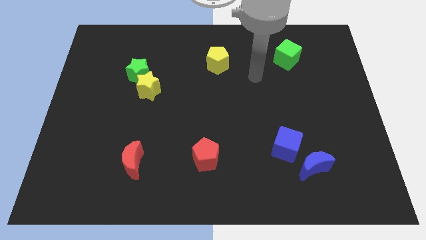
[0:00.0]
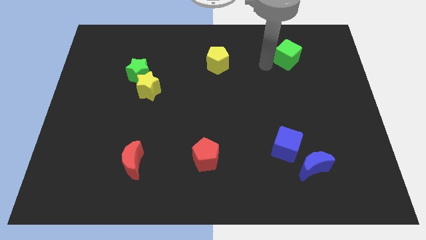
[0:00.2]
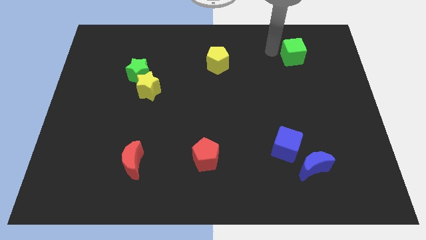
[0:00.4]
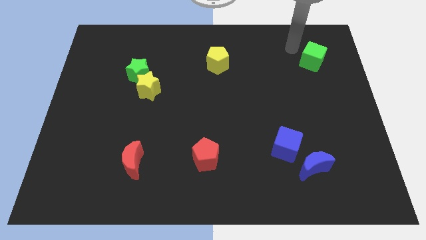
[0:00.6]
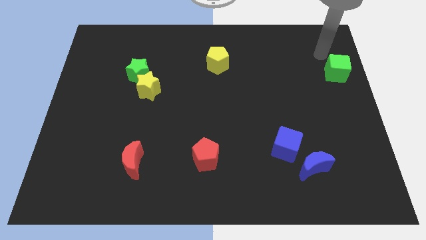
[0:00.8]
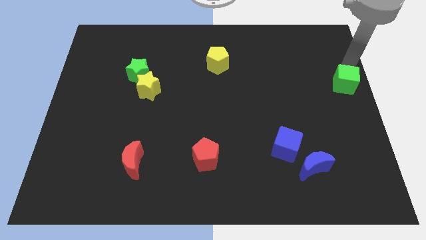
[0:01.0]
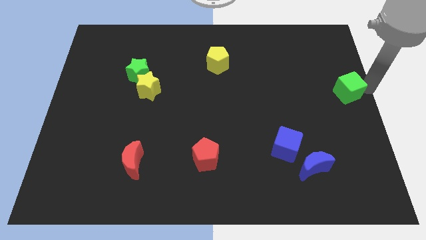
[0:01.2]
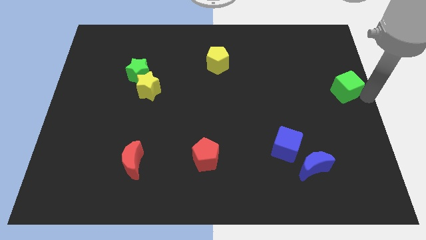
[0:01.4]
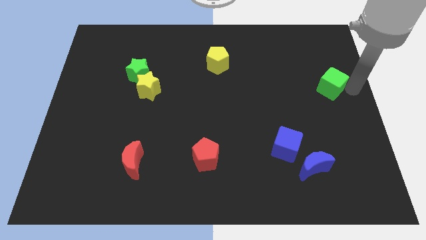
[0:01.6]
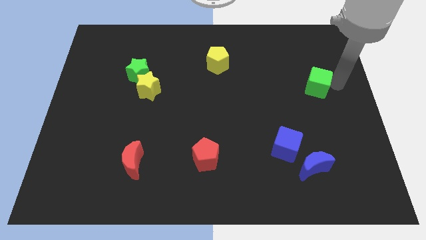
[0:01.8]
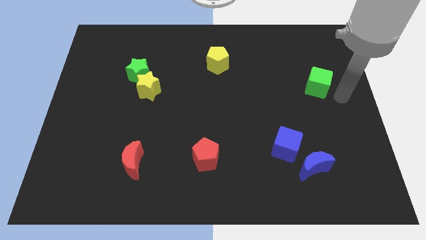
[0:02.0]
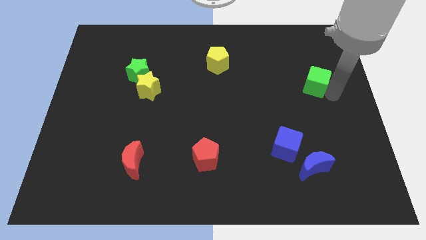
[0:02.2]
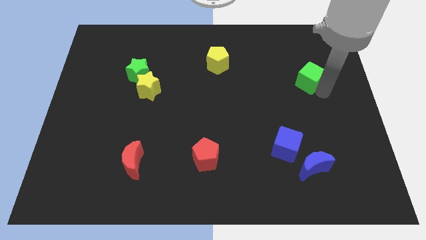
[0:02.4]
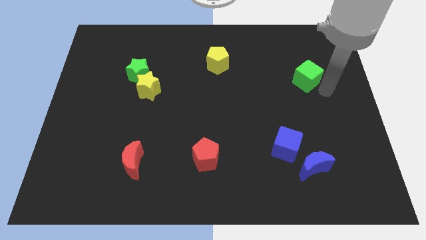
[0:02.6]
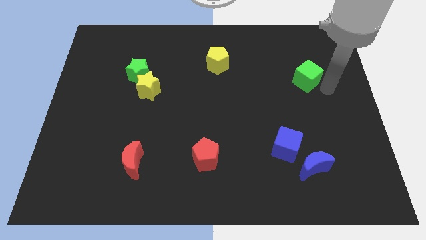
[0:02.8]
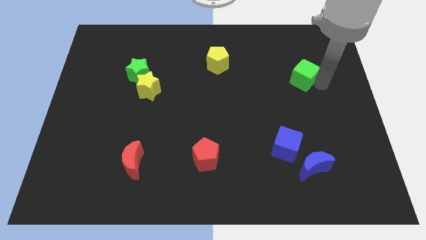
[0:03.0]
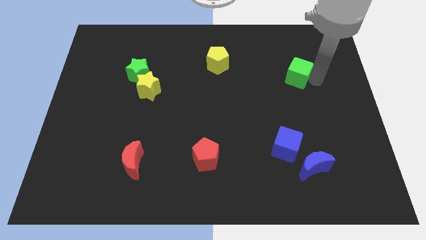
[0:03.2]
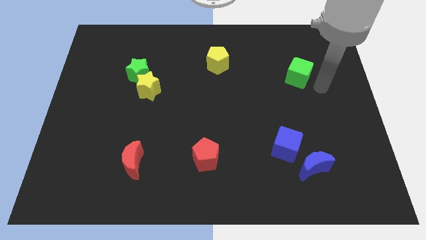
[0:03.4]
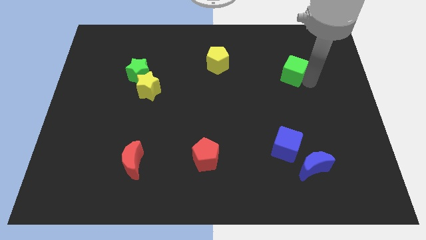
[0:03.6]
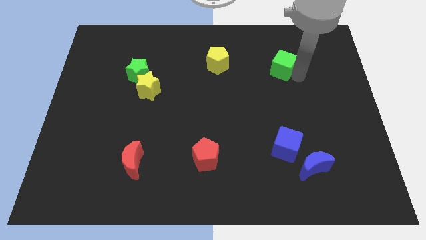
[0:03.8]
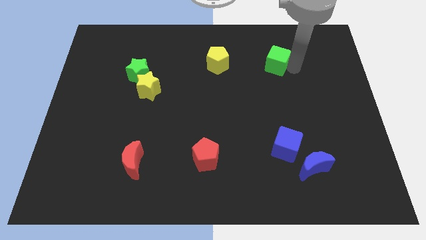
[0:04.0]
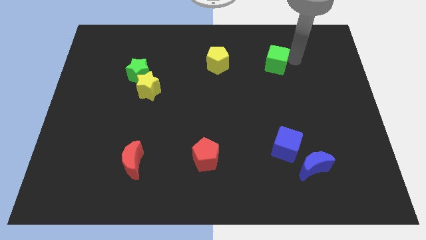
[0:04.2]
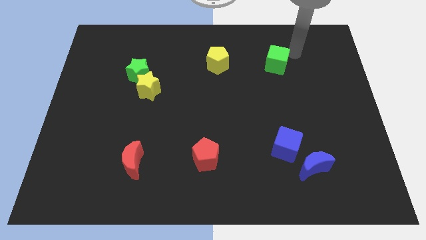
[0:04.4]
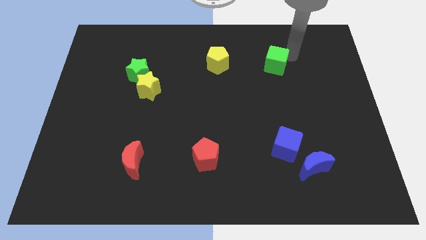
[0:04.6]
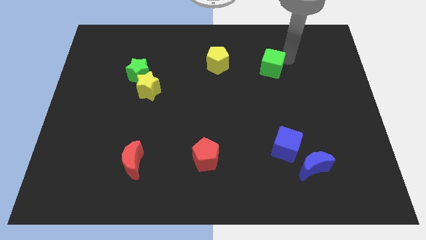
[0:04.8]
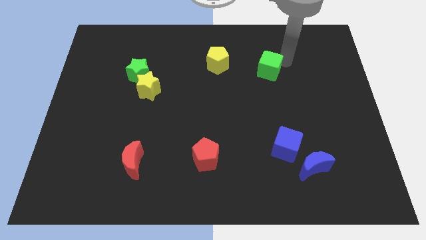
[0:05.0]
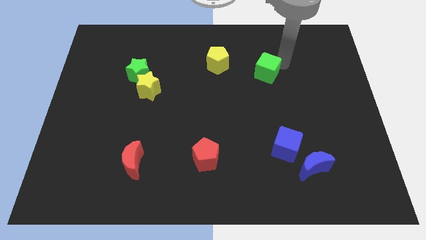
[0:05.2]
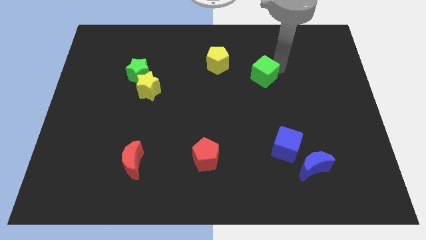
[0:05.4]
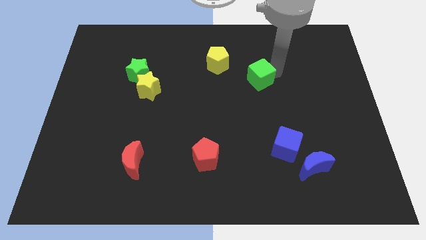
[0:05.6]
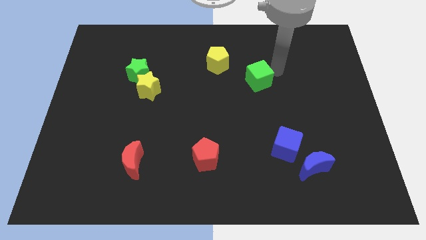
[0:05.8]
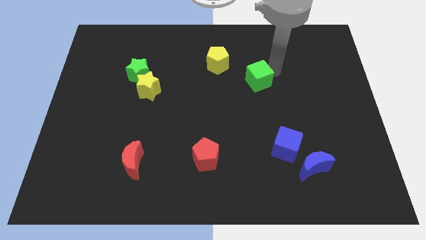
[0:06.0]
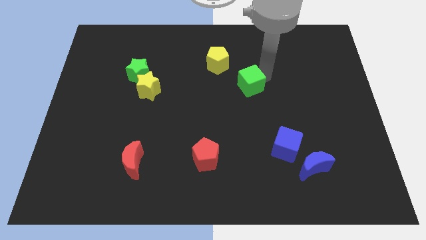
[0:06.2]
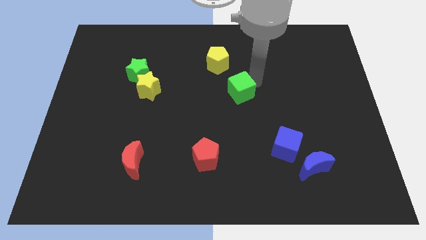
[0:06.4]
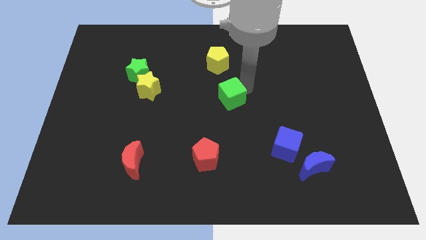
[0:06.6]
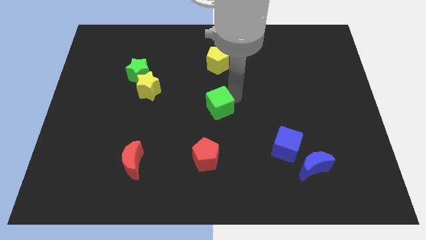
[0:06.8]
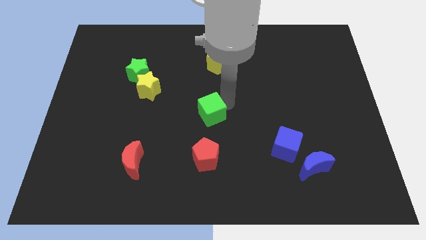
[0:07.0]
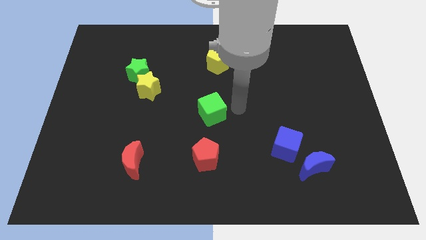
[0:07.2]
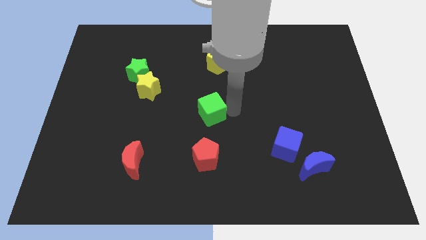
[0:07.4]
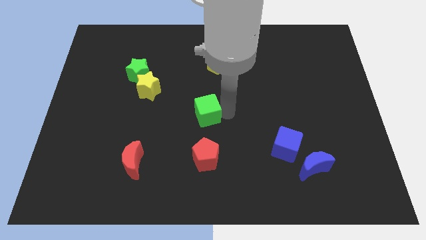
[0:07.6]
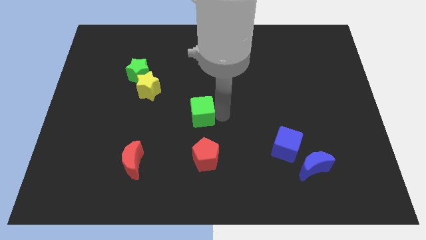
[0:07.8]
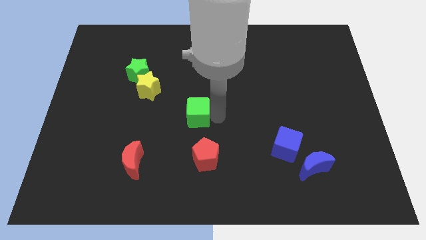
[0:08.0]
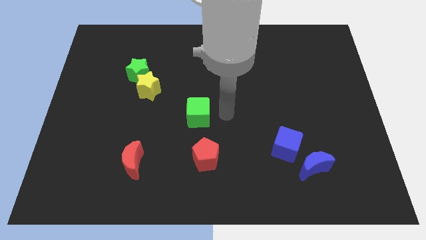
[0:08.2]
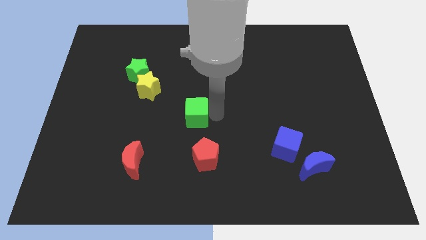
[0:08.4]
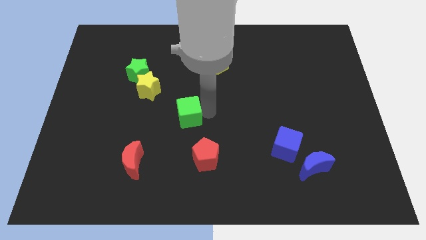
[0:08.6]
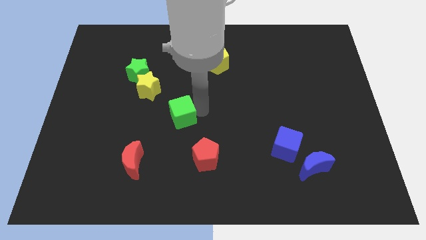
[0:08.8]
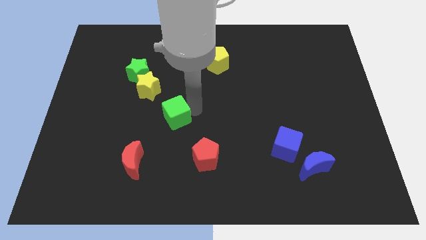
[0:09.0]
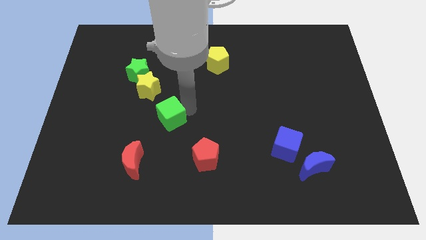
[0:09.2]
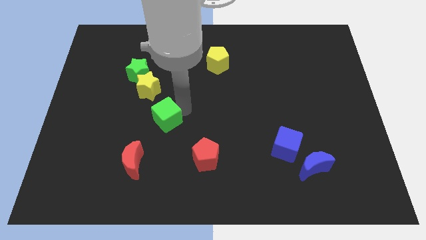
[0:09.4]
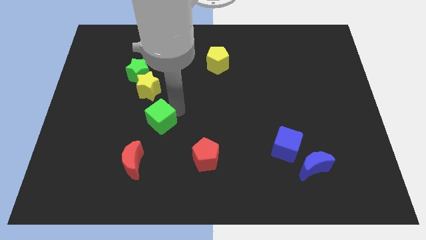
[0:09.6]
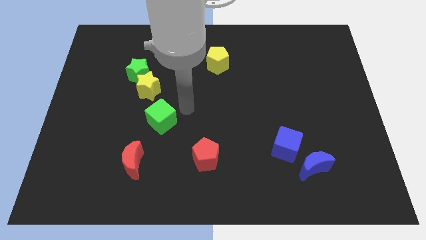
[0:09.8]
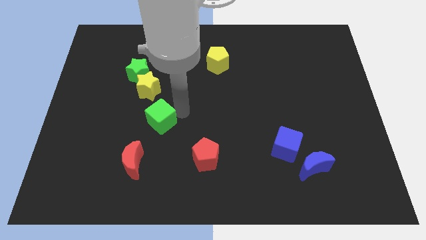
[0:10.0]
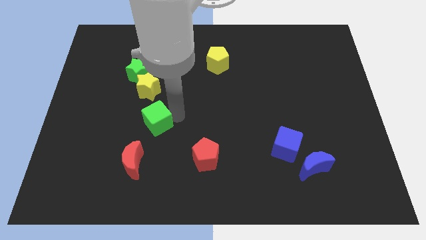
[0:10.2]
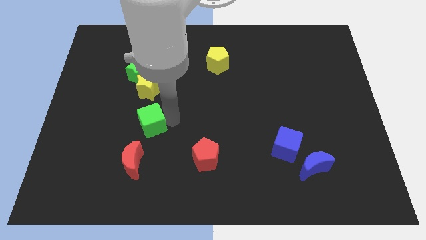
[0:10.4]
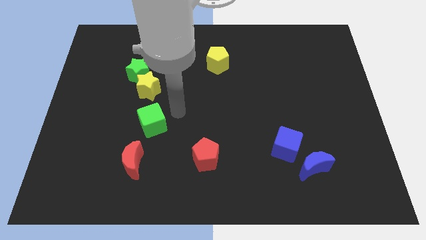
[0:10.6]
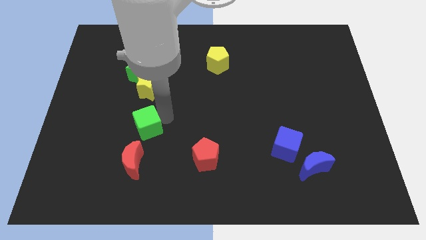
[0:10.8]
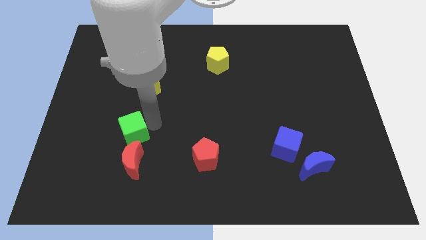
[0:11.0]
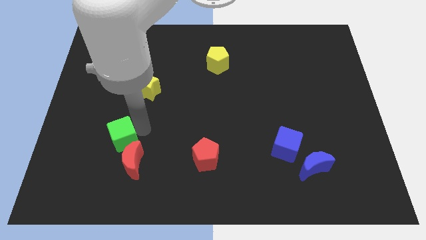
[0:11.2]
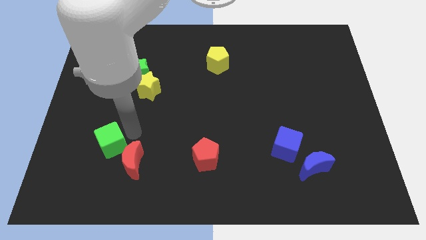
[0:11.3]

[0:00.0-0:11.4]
move the green cube just left of the red moon

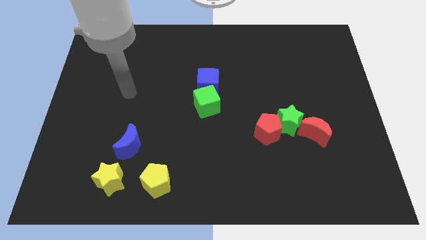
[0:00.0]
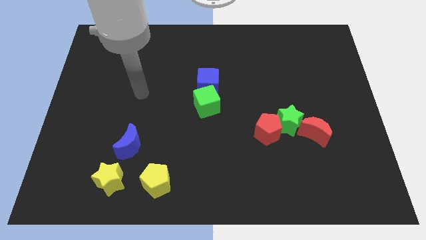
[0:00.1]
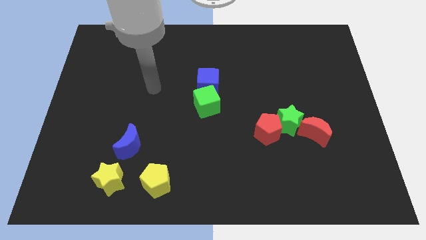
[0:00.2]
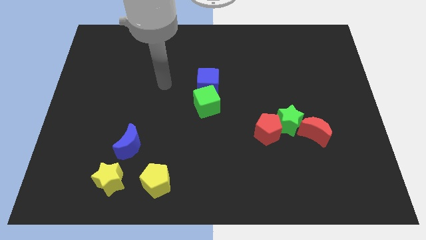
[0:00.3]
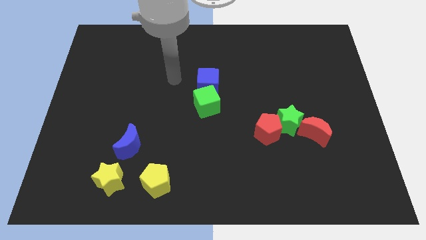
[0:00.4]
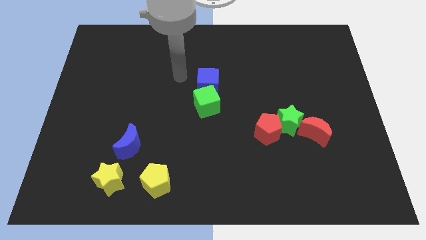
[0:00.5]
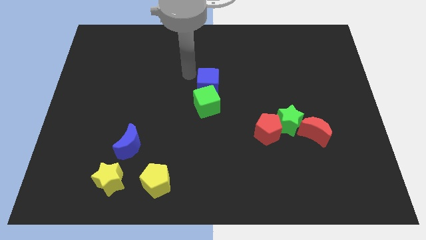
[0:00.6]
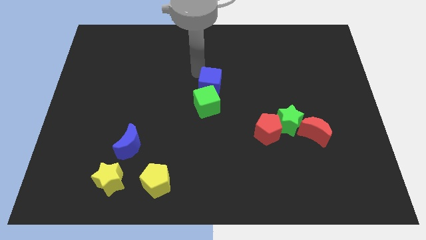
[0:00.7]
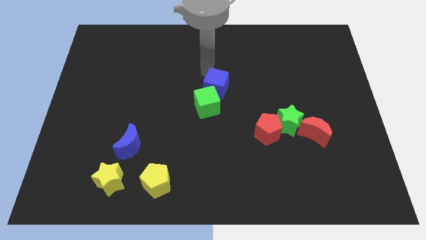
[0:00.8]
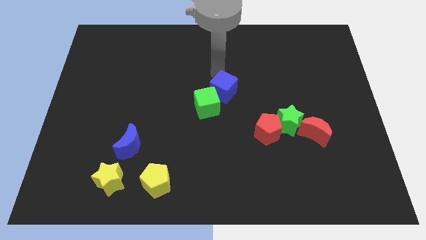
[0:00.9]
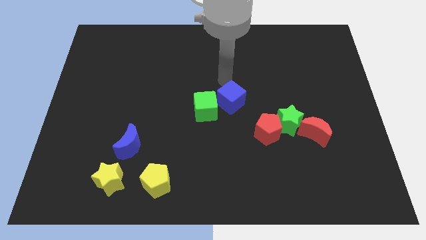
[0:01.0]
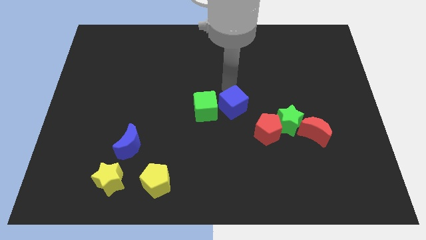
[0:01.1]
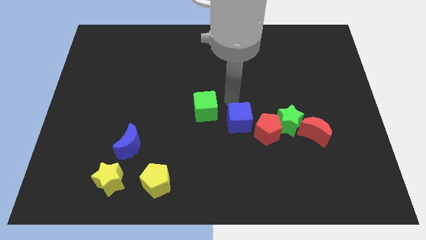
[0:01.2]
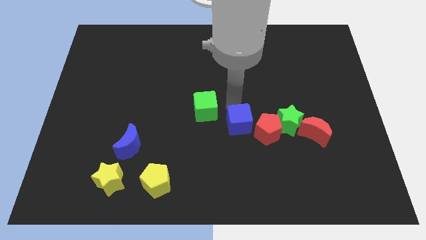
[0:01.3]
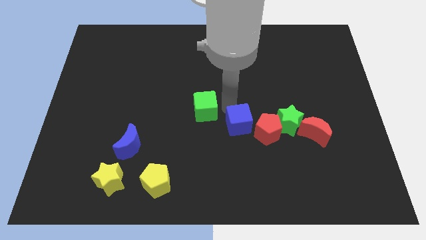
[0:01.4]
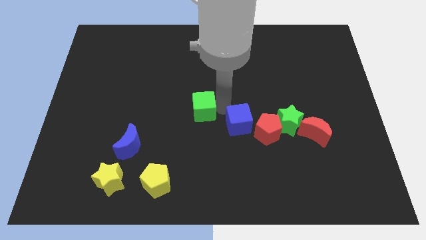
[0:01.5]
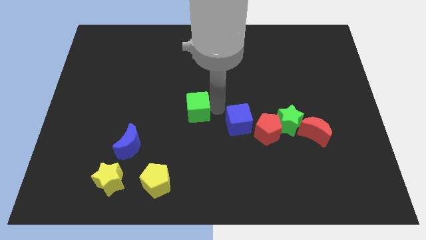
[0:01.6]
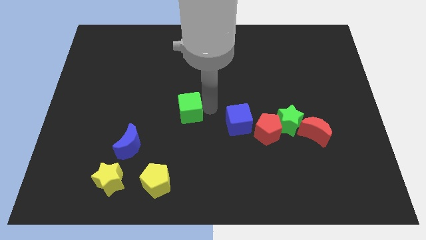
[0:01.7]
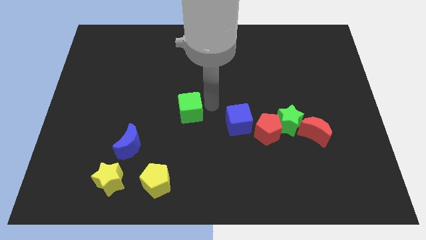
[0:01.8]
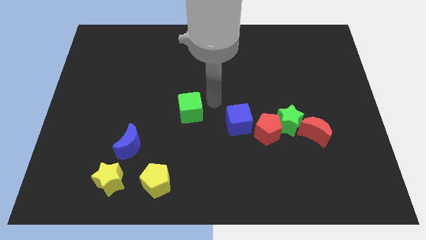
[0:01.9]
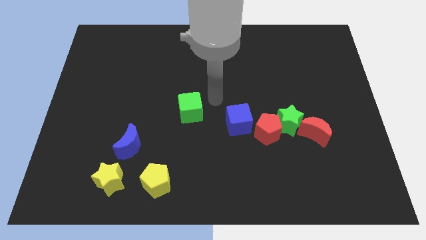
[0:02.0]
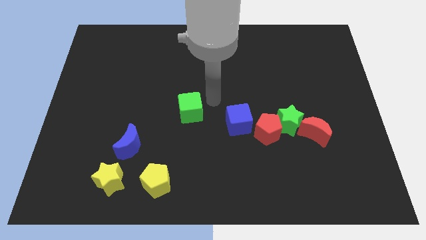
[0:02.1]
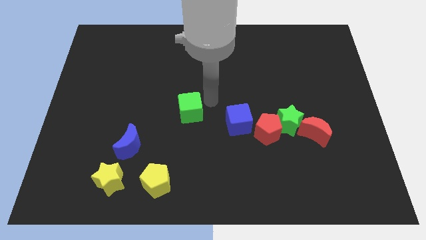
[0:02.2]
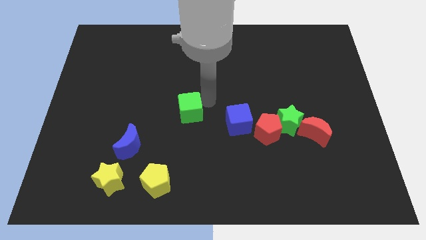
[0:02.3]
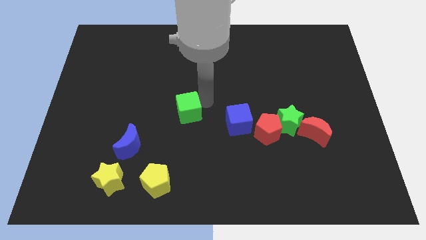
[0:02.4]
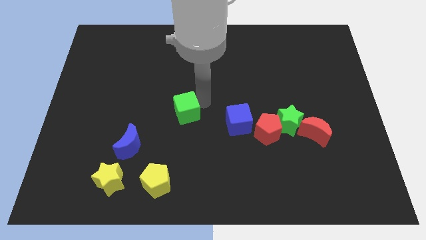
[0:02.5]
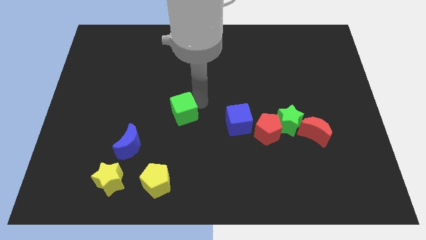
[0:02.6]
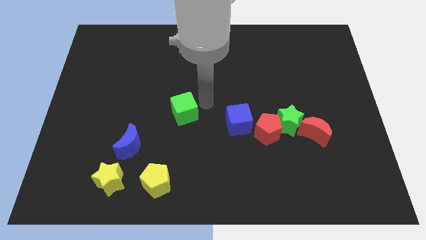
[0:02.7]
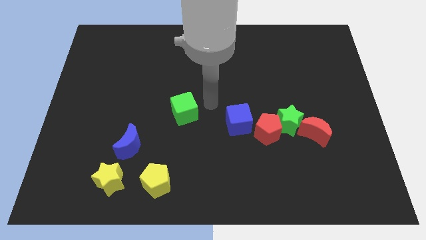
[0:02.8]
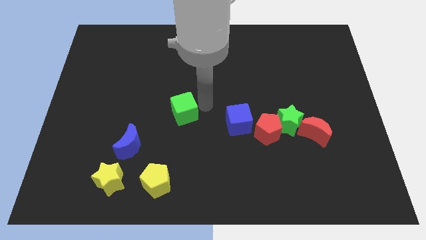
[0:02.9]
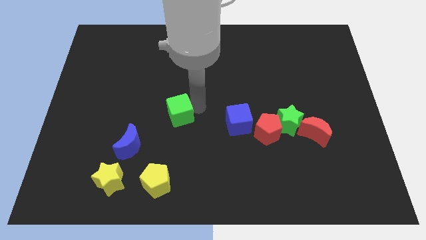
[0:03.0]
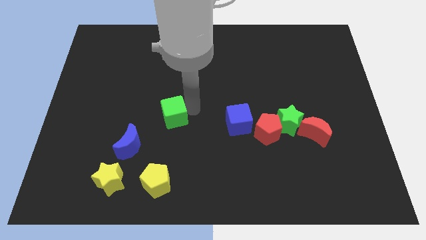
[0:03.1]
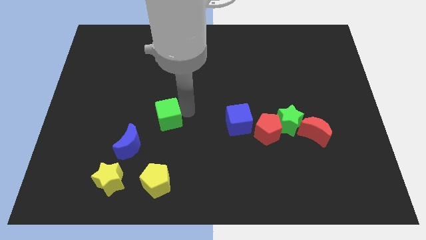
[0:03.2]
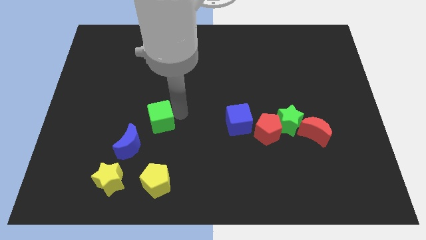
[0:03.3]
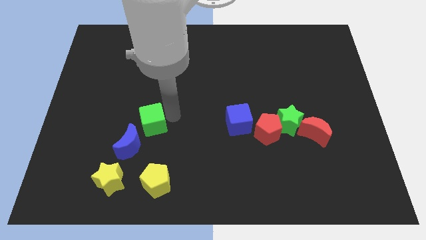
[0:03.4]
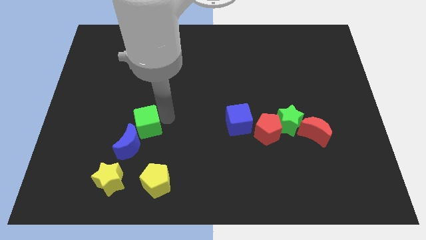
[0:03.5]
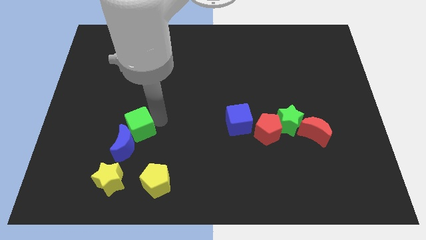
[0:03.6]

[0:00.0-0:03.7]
move the green cube to the top of the yellow star
